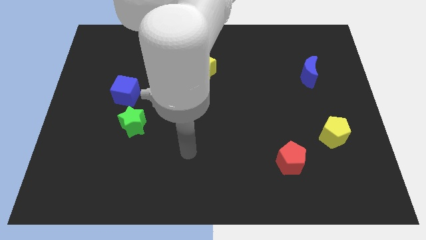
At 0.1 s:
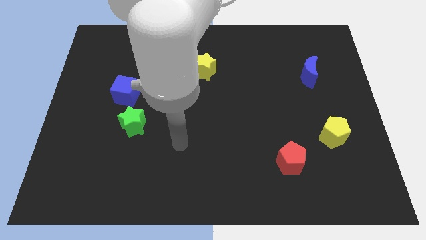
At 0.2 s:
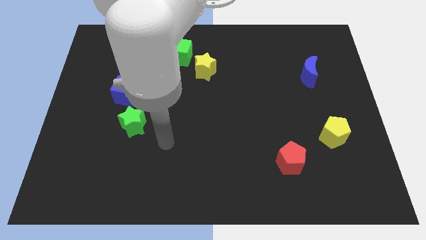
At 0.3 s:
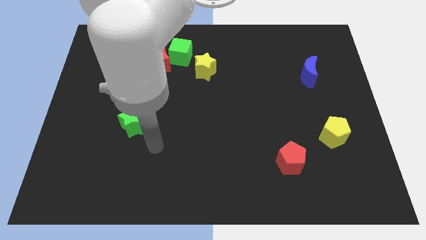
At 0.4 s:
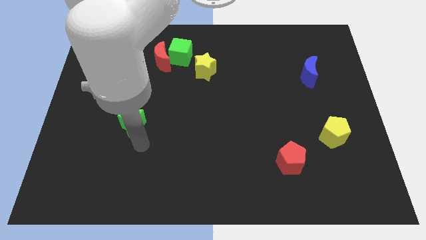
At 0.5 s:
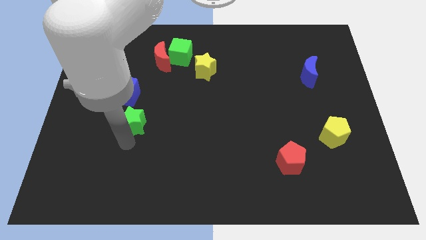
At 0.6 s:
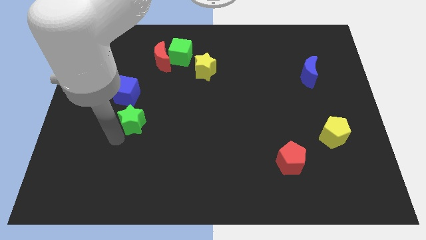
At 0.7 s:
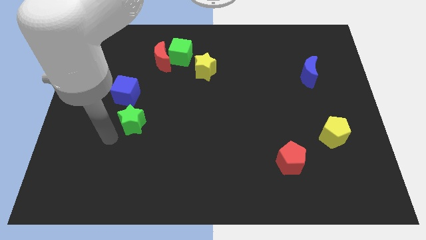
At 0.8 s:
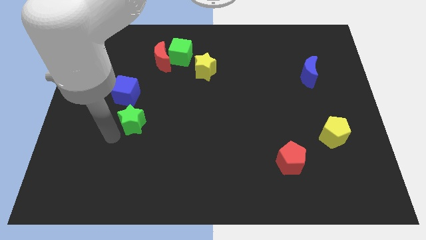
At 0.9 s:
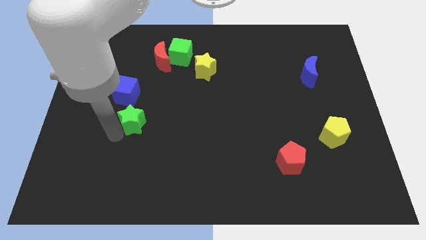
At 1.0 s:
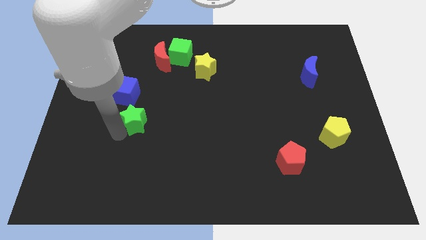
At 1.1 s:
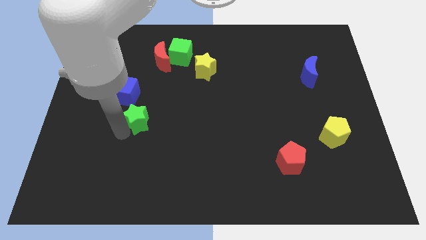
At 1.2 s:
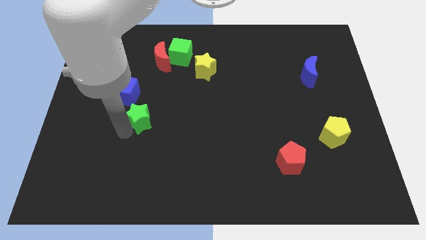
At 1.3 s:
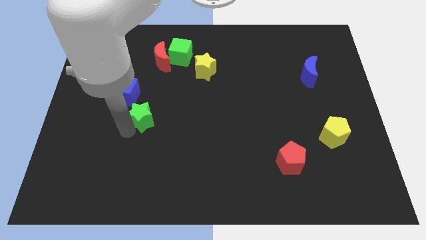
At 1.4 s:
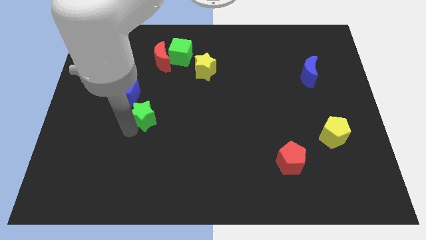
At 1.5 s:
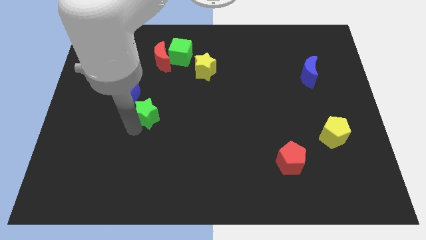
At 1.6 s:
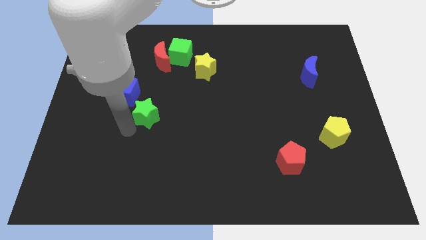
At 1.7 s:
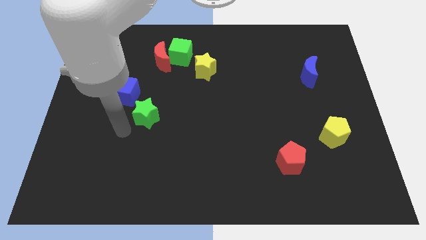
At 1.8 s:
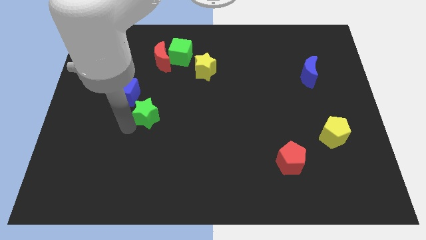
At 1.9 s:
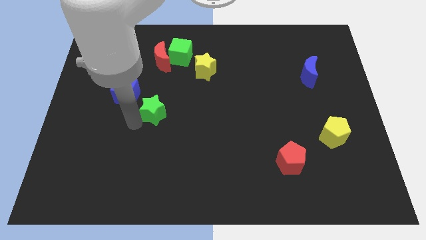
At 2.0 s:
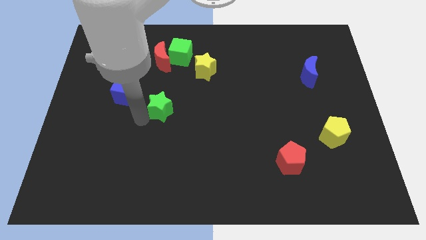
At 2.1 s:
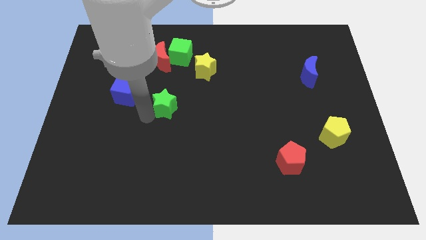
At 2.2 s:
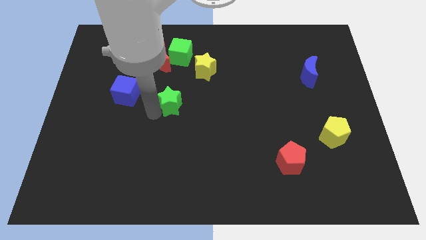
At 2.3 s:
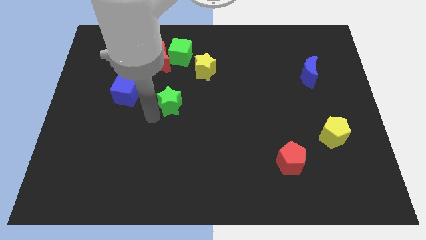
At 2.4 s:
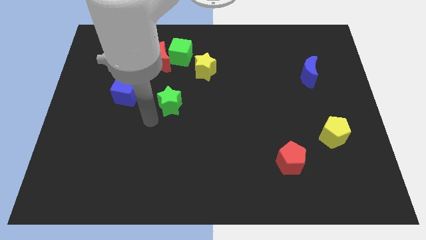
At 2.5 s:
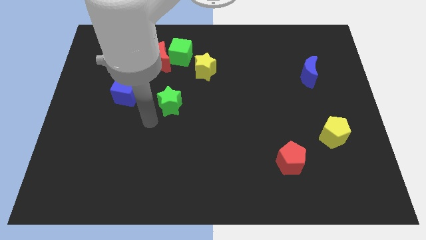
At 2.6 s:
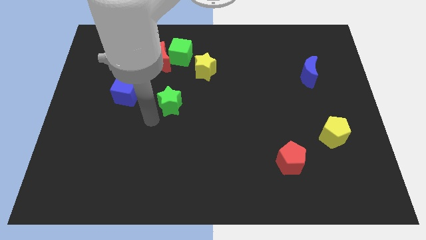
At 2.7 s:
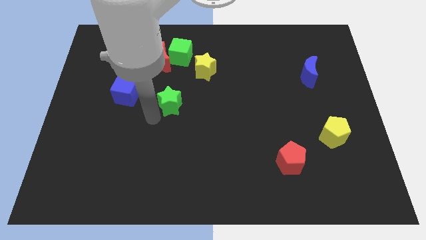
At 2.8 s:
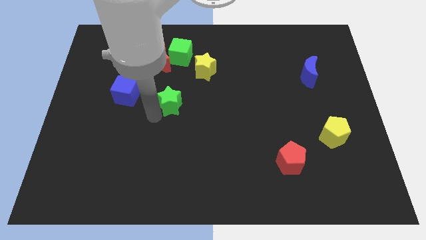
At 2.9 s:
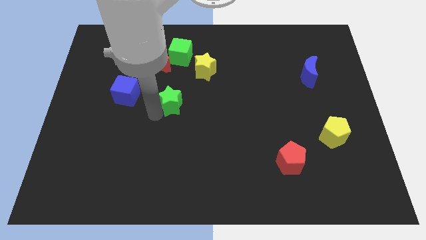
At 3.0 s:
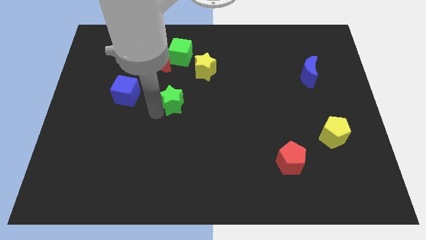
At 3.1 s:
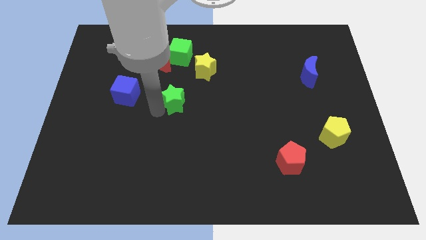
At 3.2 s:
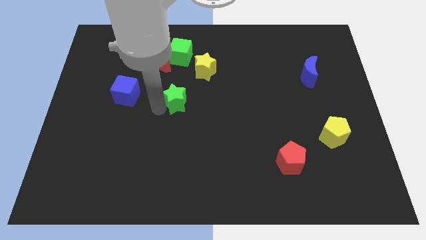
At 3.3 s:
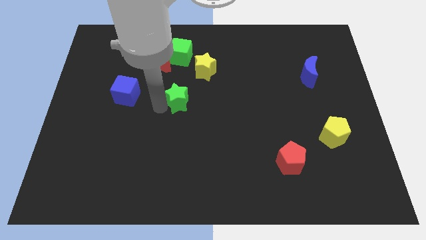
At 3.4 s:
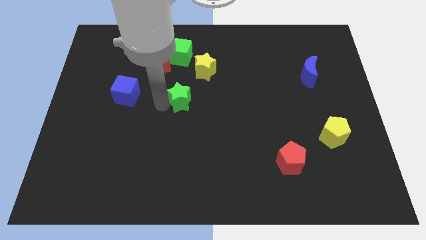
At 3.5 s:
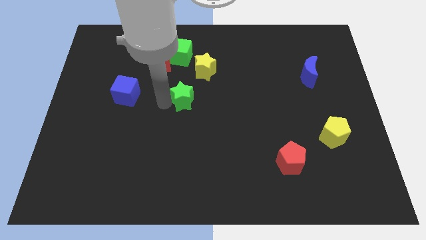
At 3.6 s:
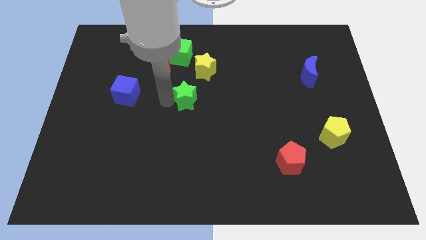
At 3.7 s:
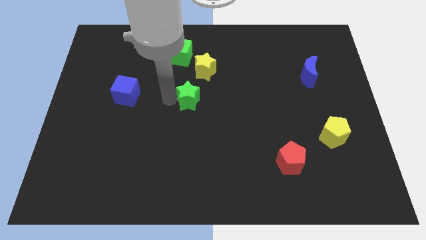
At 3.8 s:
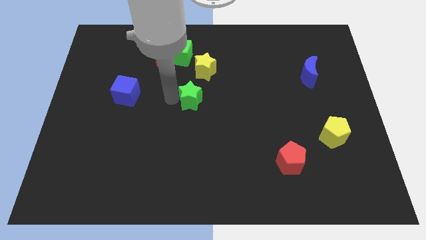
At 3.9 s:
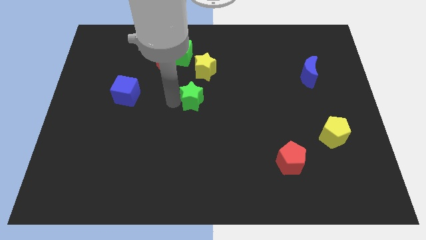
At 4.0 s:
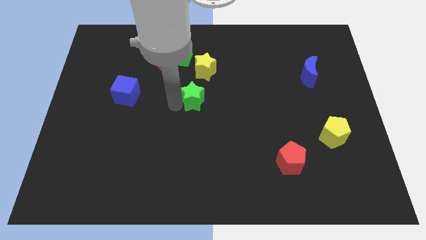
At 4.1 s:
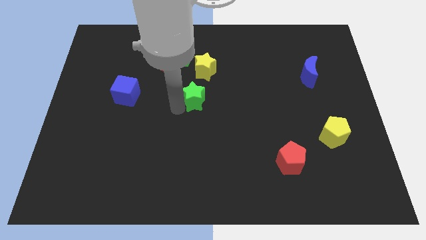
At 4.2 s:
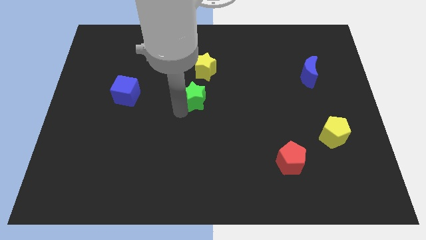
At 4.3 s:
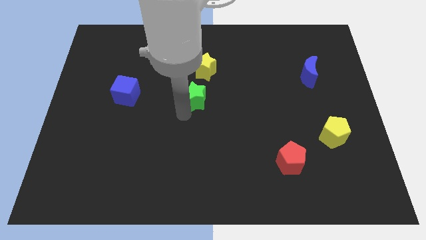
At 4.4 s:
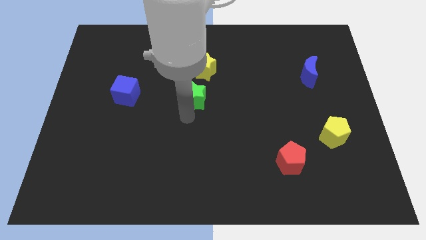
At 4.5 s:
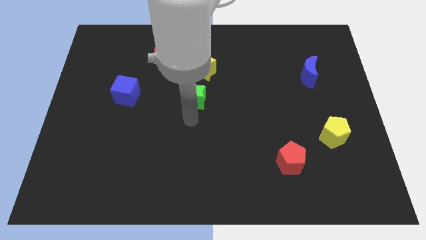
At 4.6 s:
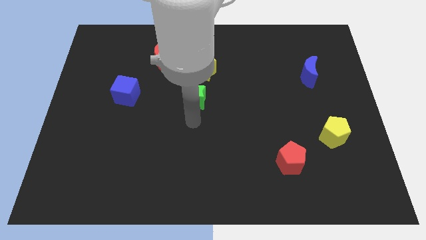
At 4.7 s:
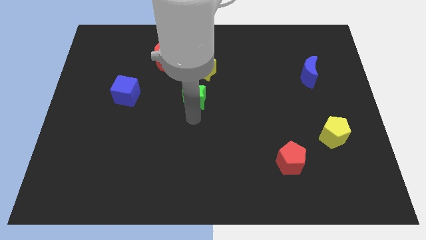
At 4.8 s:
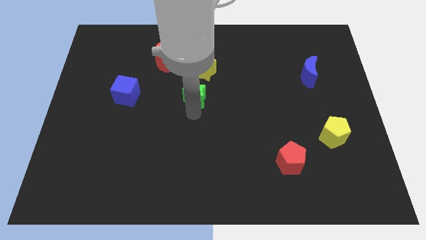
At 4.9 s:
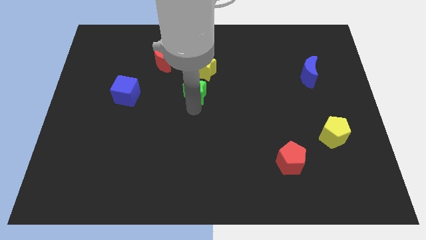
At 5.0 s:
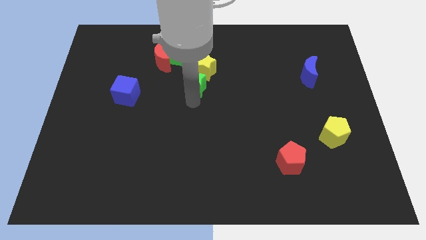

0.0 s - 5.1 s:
slide the green star close to the yellow star

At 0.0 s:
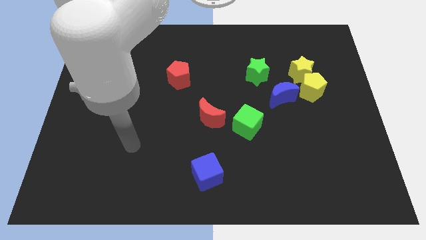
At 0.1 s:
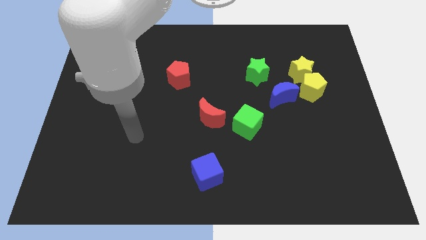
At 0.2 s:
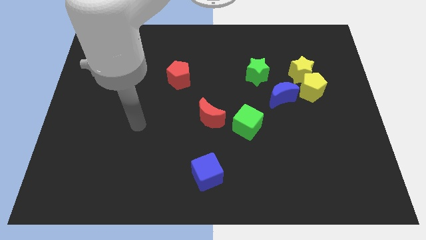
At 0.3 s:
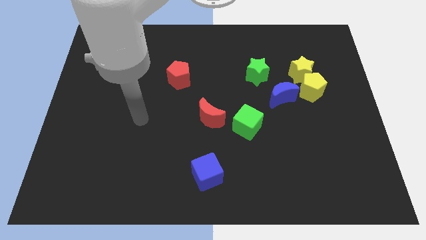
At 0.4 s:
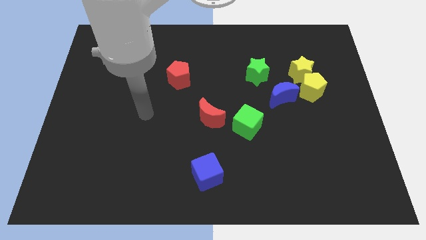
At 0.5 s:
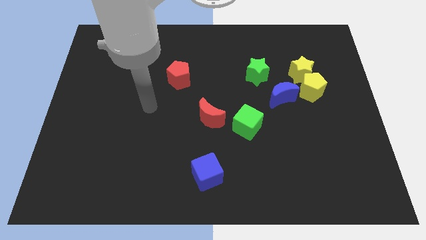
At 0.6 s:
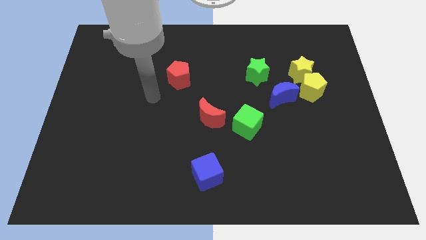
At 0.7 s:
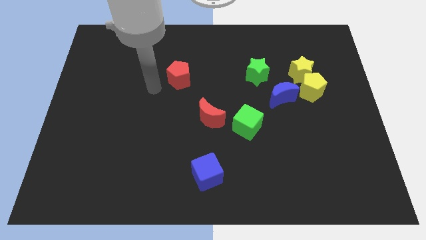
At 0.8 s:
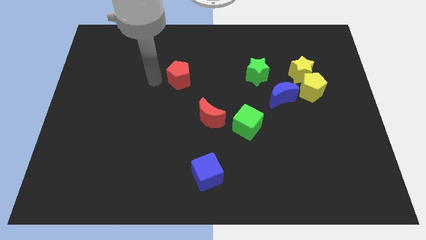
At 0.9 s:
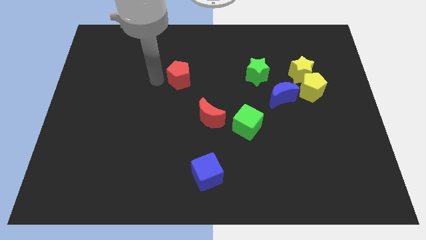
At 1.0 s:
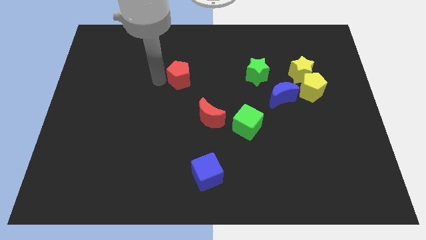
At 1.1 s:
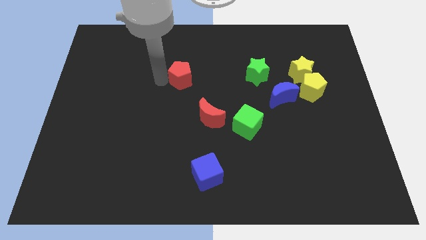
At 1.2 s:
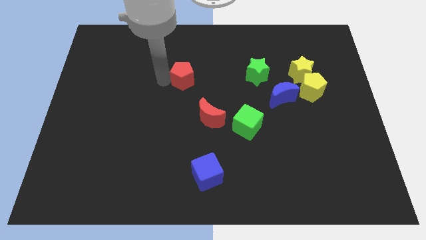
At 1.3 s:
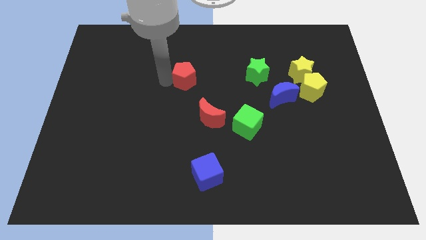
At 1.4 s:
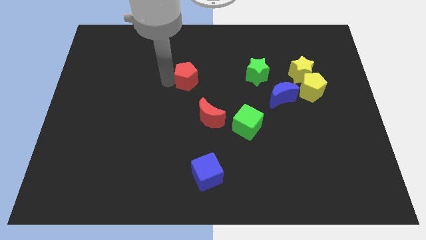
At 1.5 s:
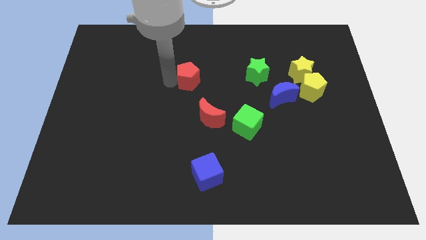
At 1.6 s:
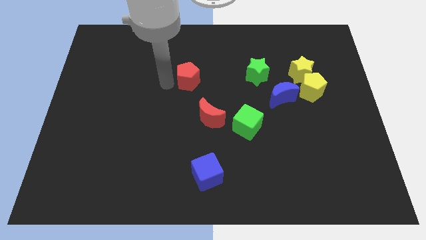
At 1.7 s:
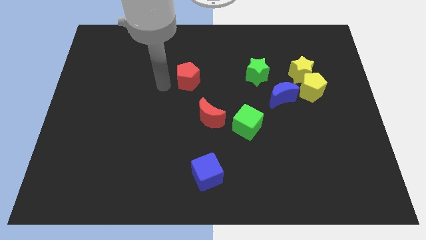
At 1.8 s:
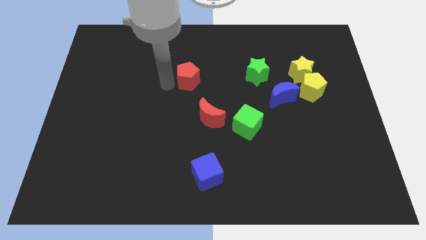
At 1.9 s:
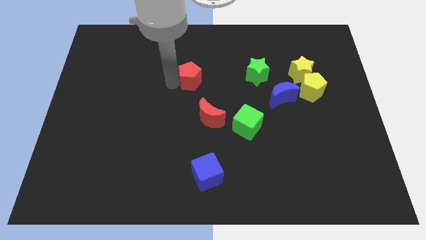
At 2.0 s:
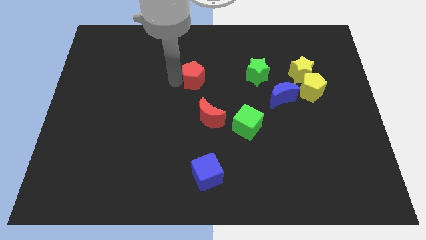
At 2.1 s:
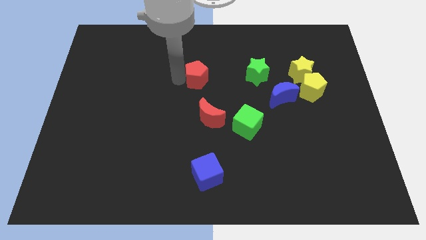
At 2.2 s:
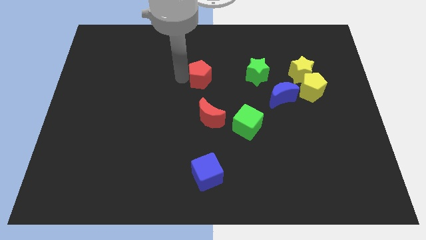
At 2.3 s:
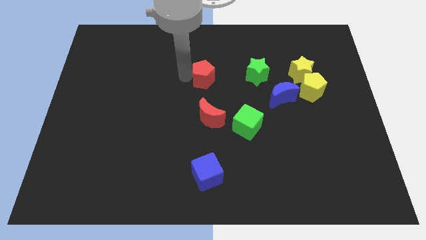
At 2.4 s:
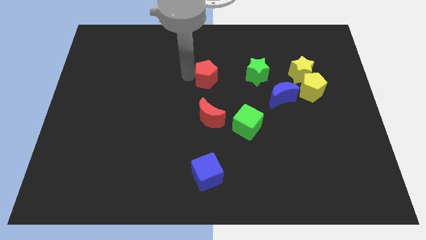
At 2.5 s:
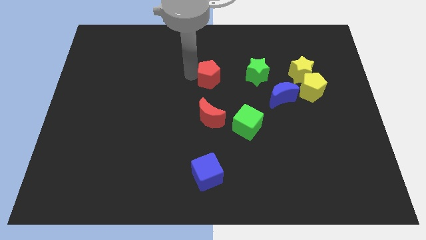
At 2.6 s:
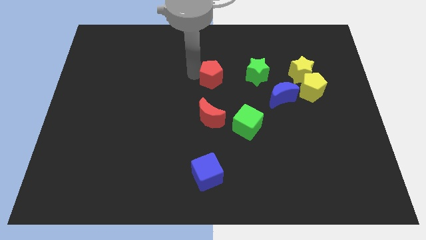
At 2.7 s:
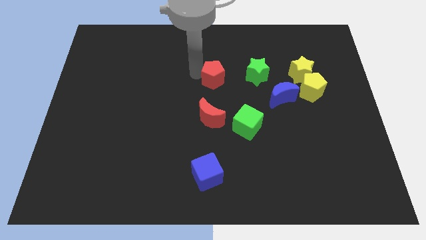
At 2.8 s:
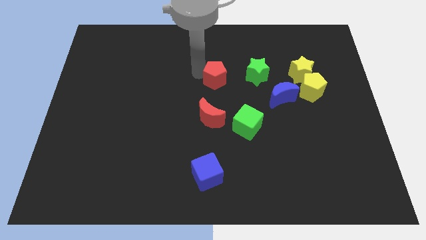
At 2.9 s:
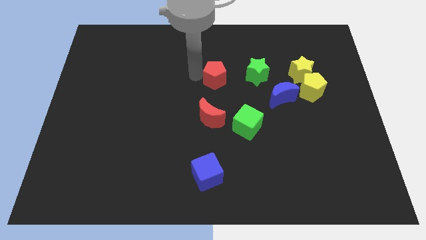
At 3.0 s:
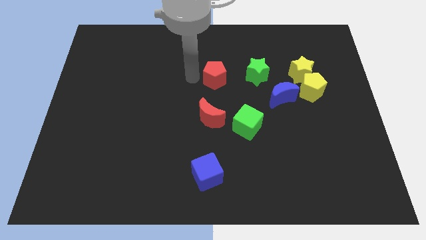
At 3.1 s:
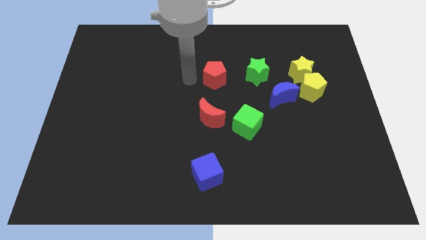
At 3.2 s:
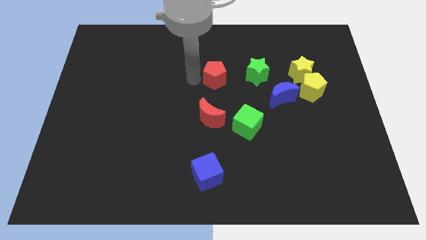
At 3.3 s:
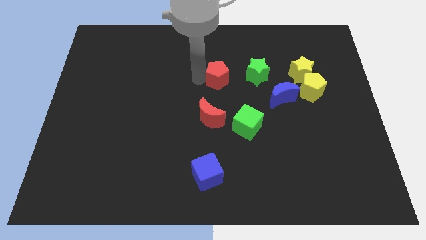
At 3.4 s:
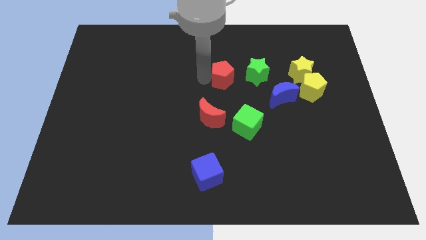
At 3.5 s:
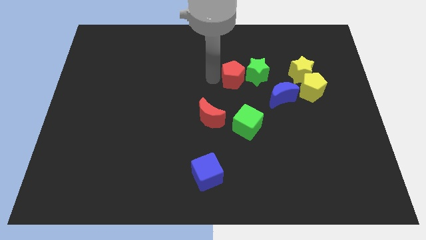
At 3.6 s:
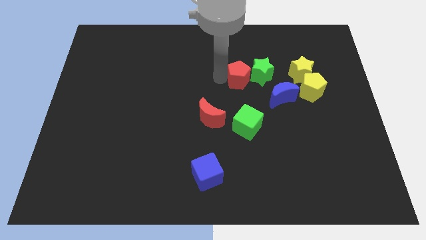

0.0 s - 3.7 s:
push the red pentagon close to the green star
